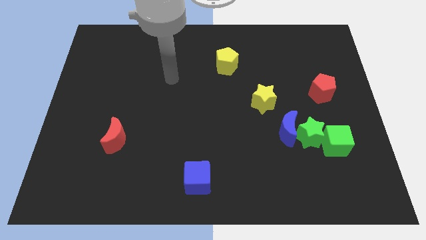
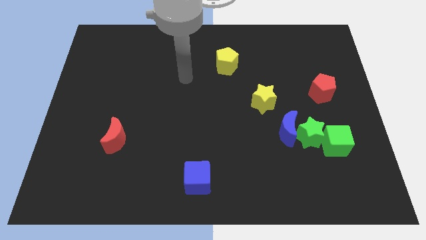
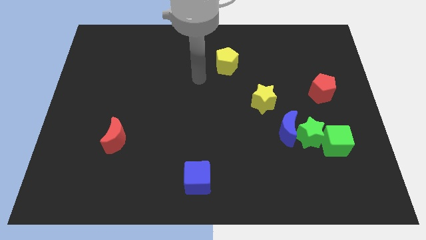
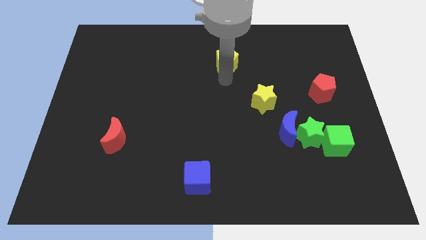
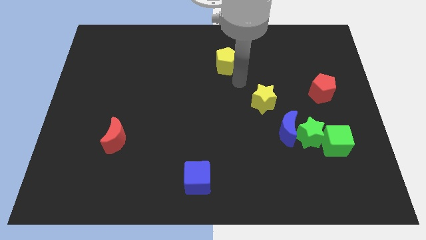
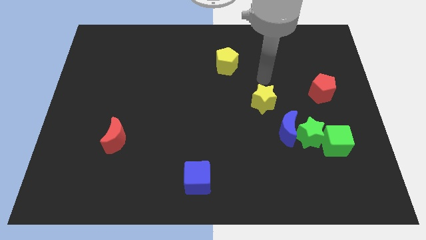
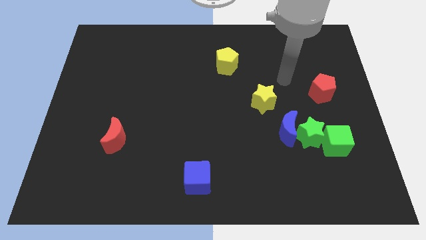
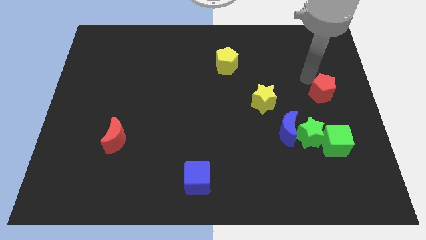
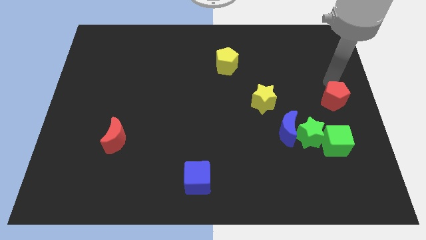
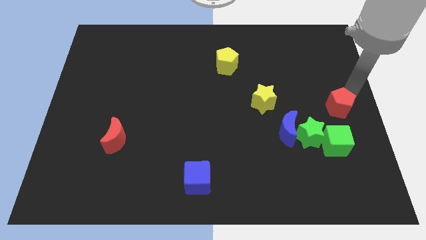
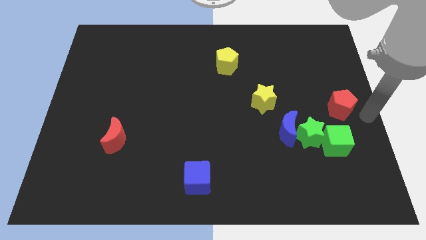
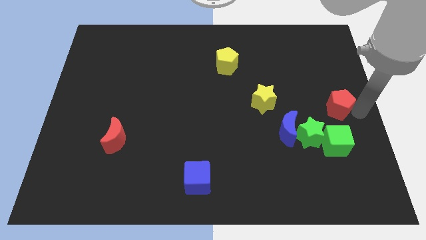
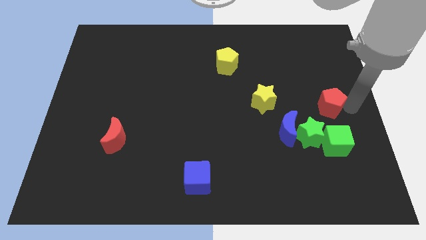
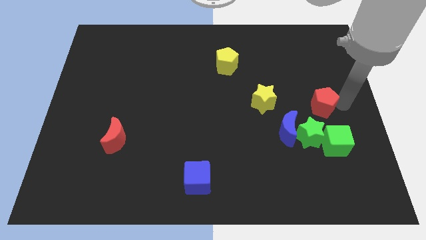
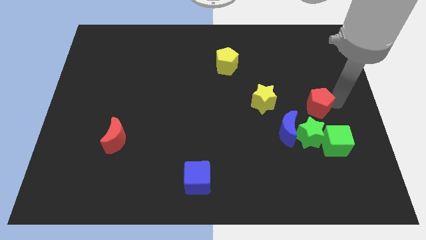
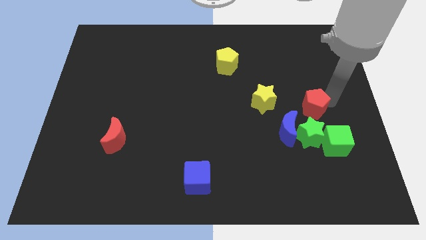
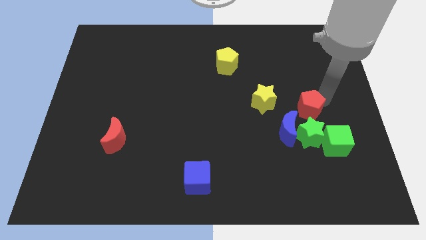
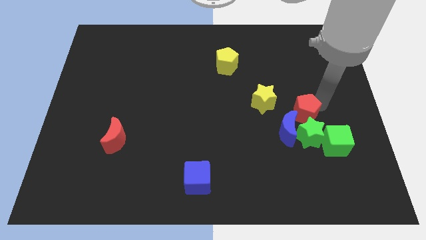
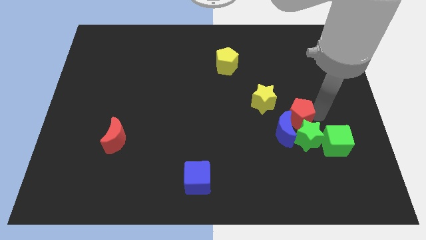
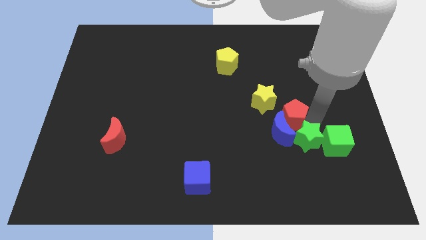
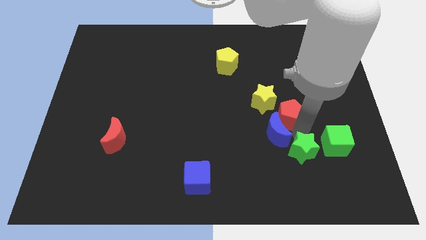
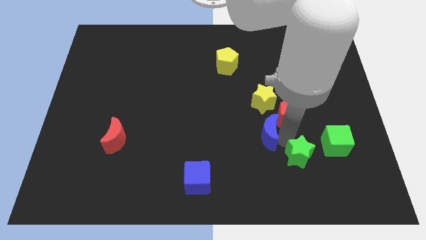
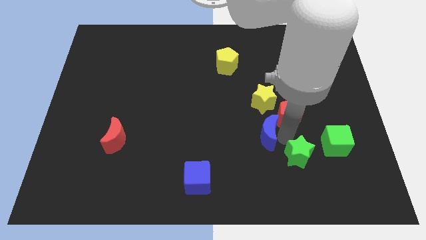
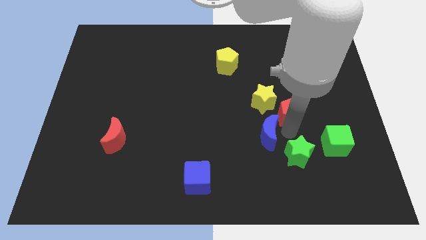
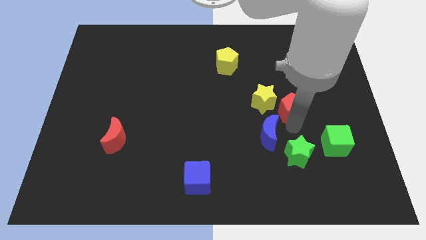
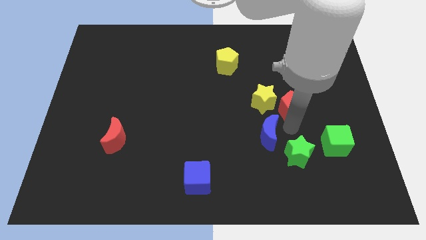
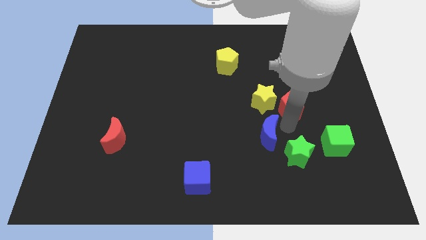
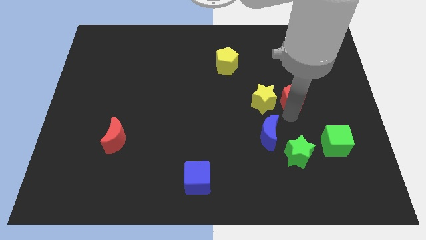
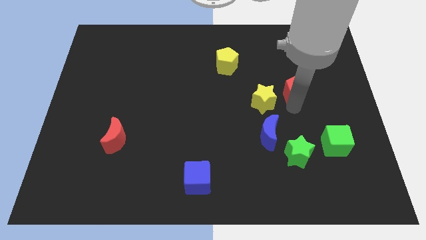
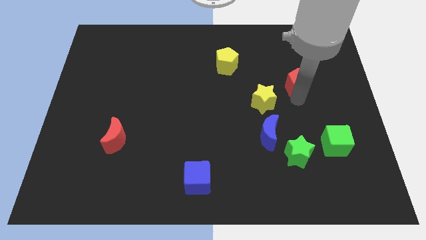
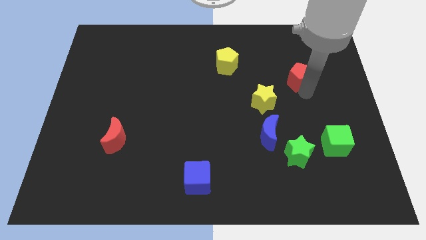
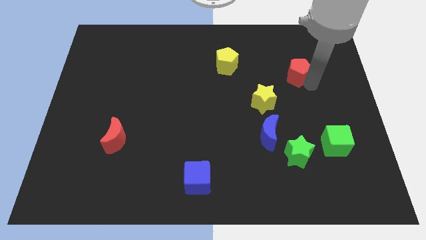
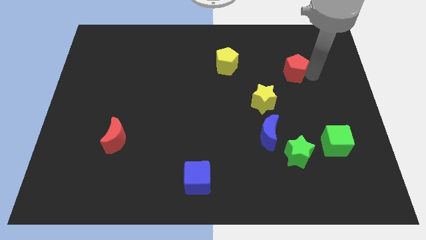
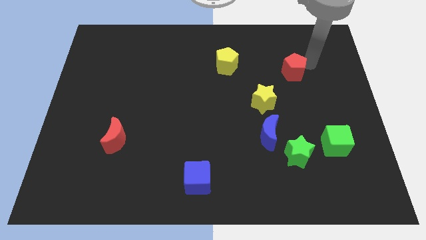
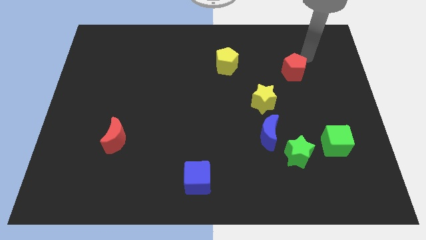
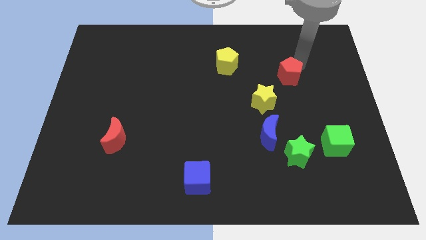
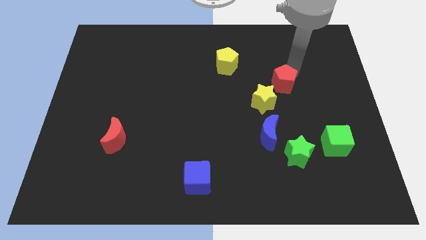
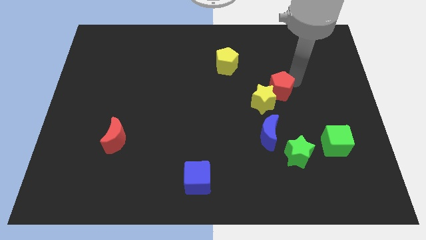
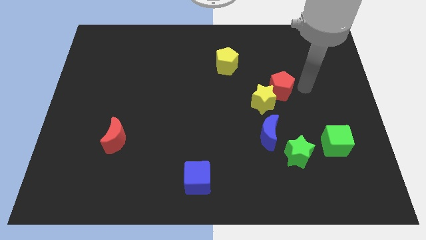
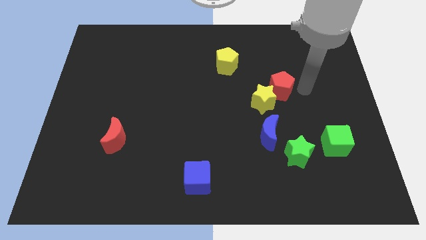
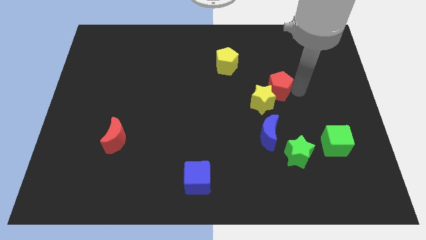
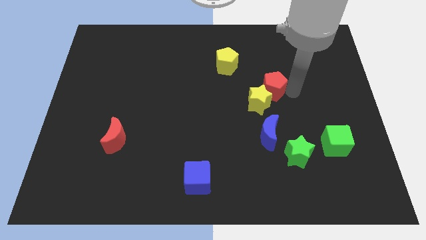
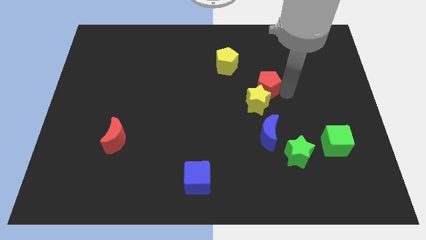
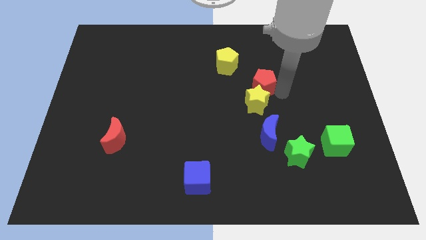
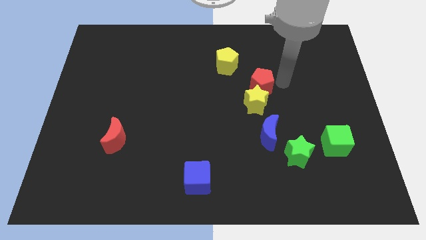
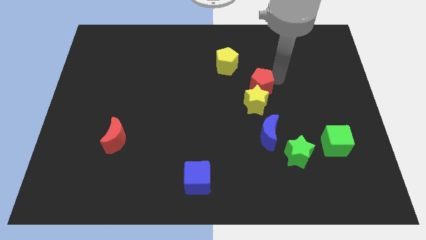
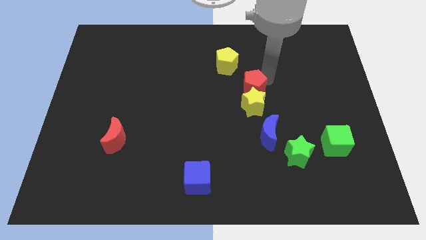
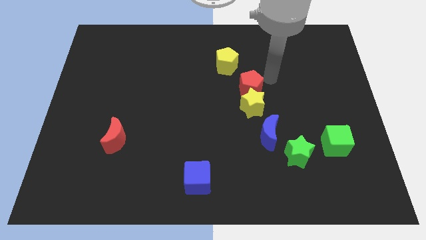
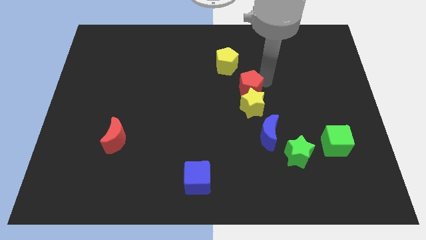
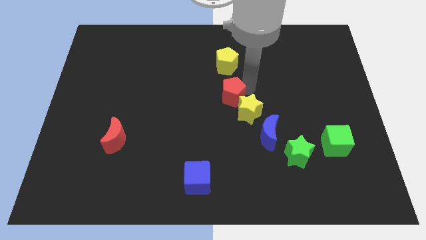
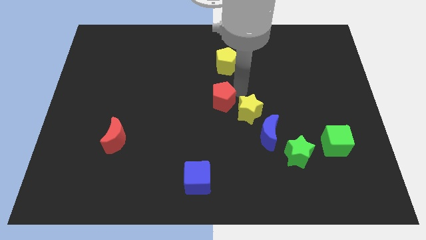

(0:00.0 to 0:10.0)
slide the red pentagon left of the yellow star

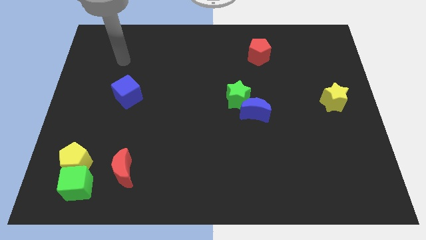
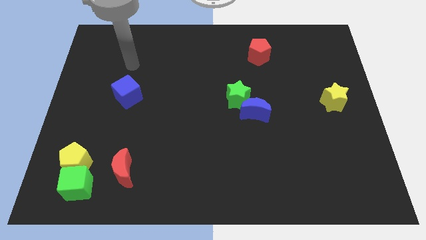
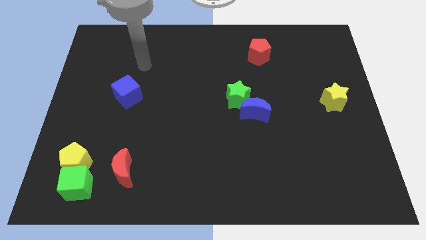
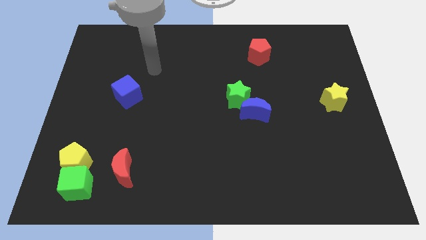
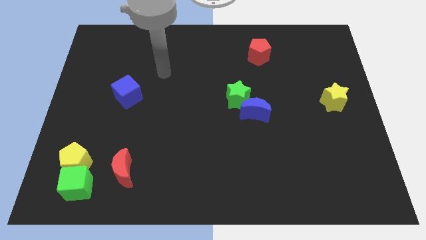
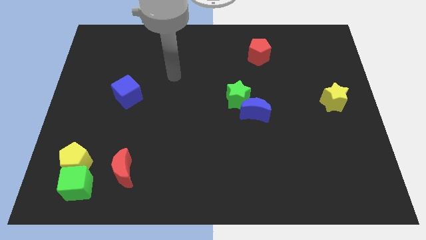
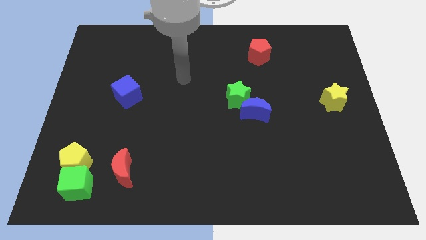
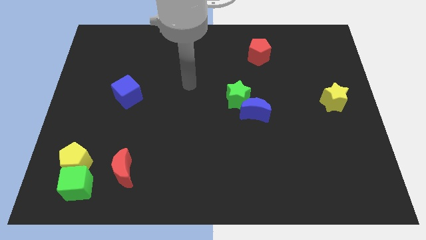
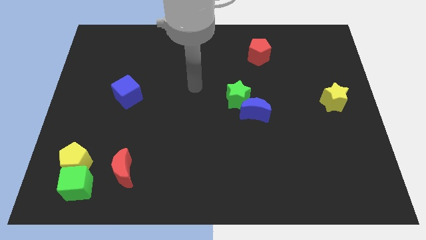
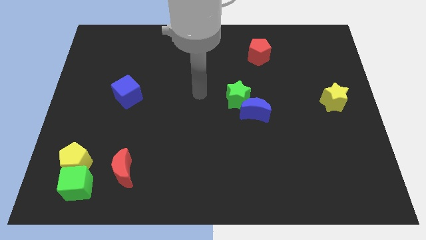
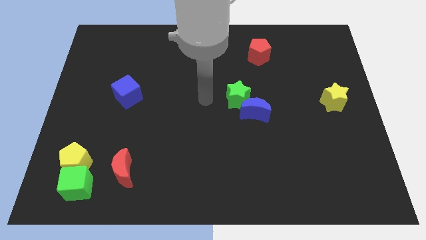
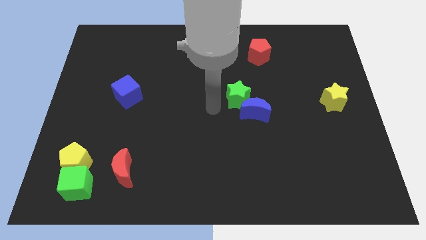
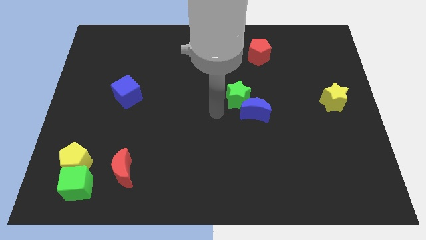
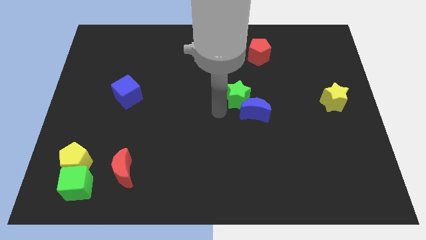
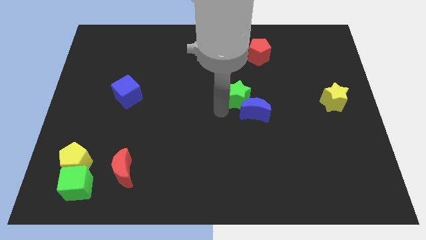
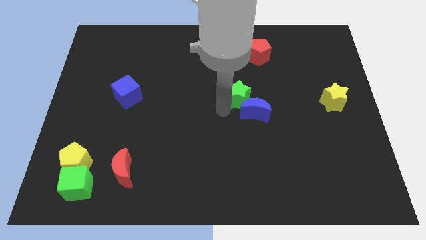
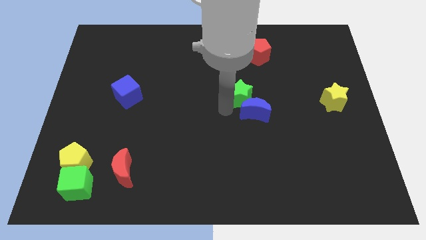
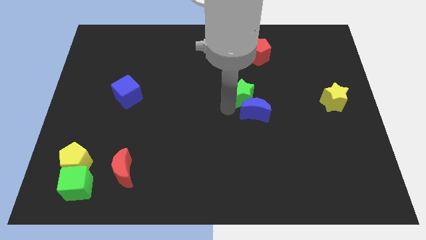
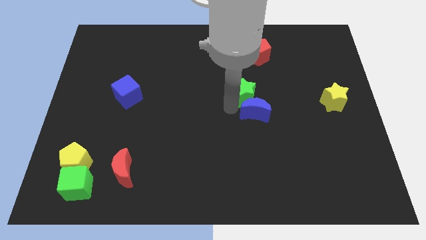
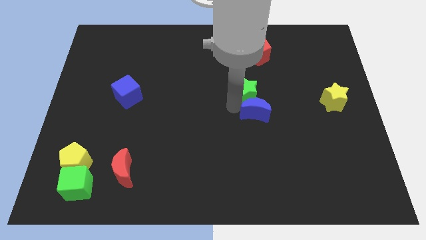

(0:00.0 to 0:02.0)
move the green star to the bottom of the red pentagon
